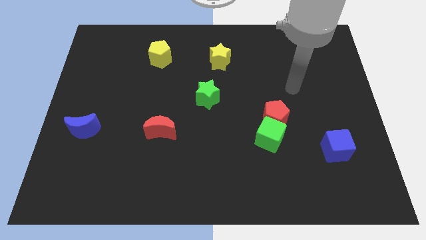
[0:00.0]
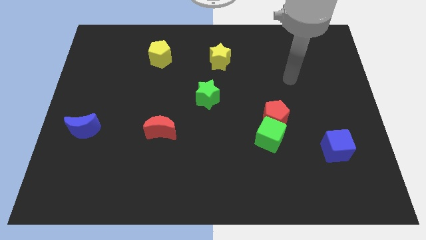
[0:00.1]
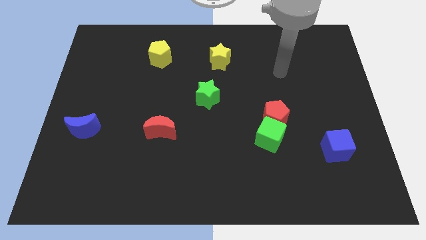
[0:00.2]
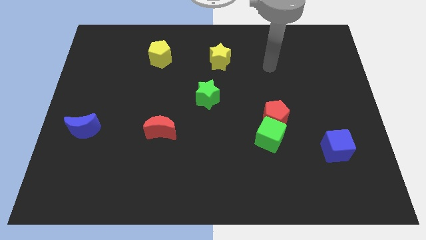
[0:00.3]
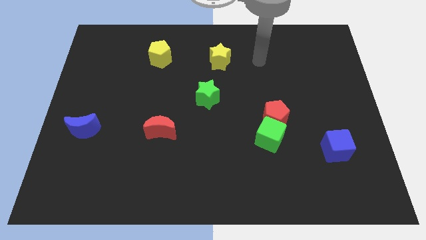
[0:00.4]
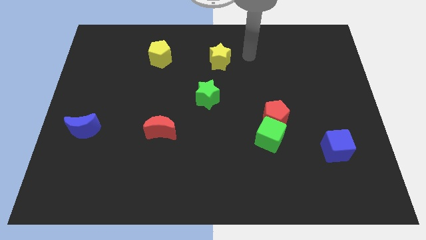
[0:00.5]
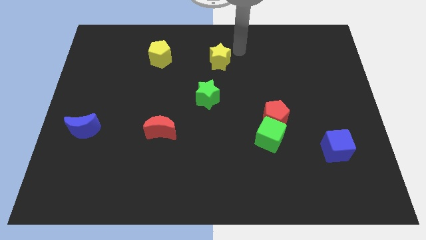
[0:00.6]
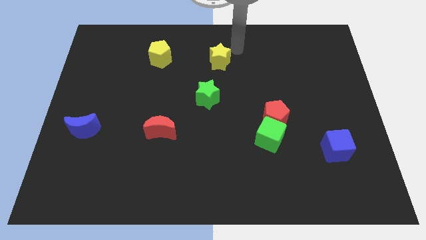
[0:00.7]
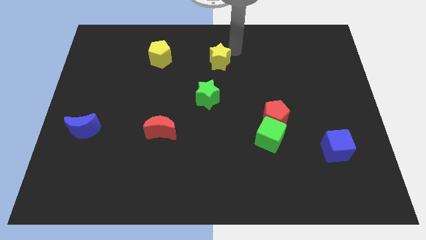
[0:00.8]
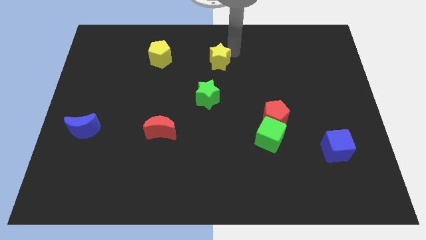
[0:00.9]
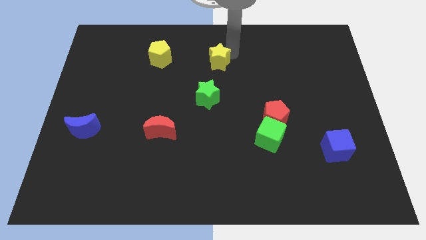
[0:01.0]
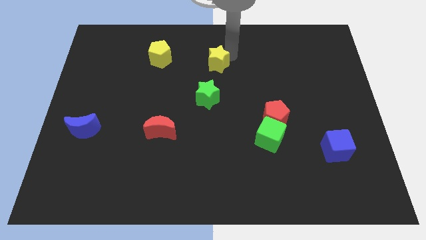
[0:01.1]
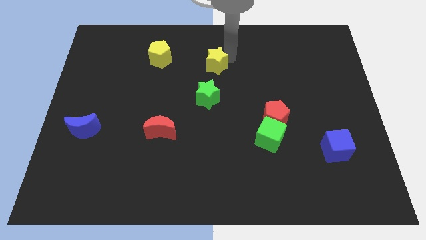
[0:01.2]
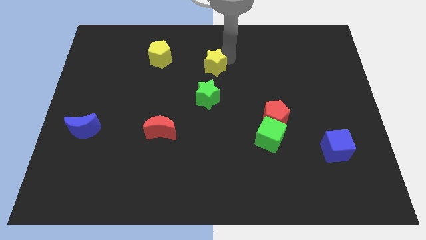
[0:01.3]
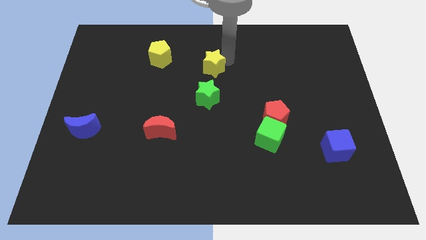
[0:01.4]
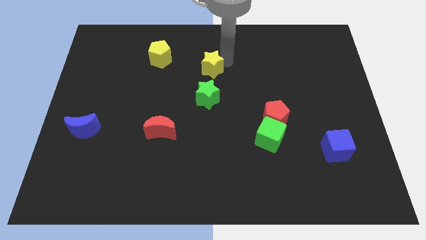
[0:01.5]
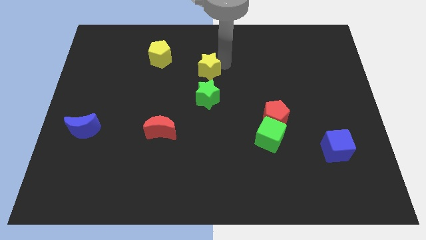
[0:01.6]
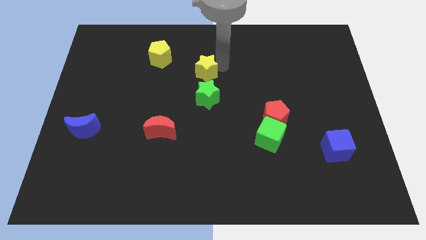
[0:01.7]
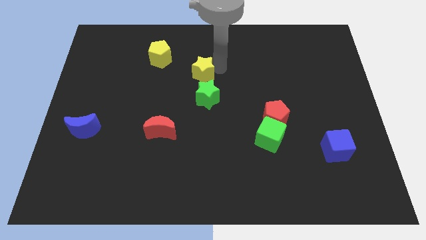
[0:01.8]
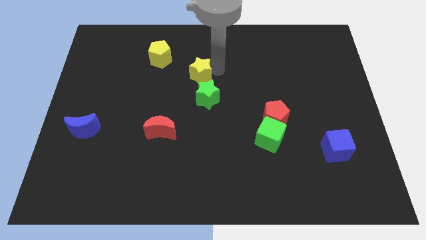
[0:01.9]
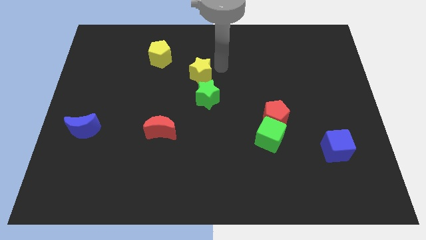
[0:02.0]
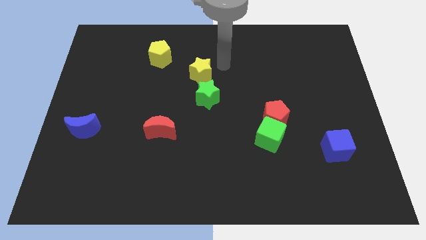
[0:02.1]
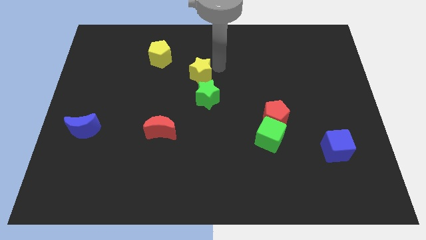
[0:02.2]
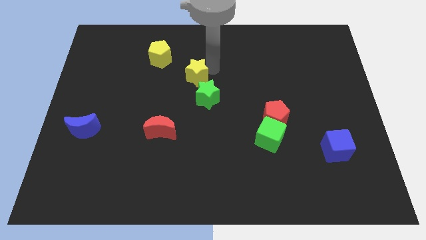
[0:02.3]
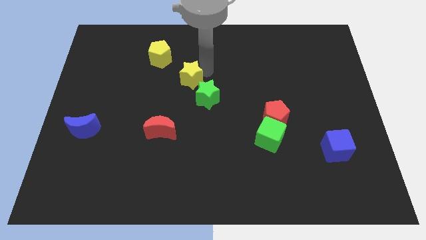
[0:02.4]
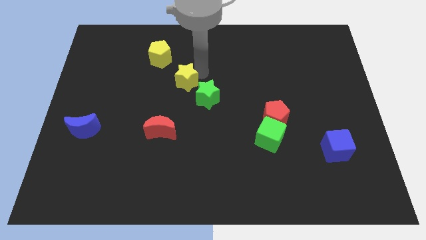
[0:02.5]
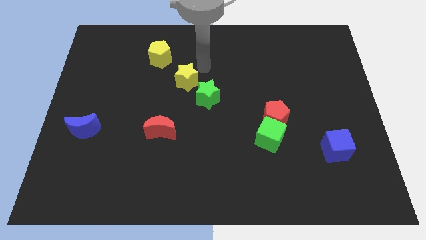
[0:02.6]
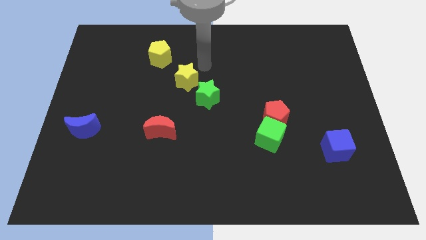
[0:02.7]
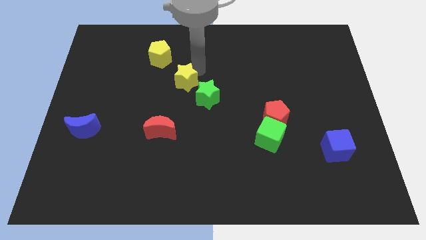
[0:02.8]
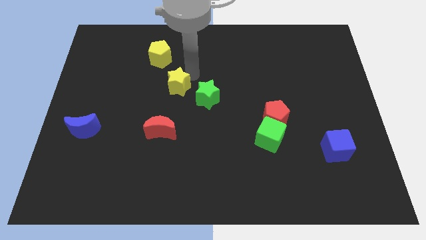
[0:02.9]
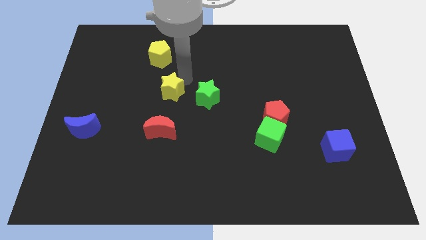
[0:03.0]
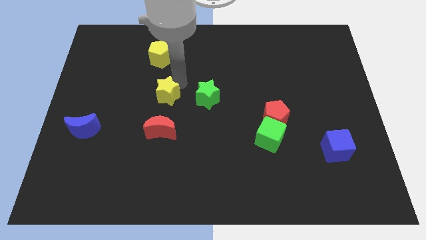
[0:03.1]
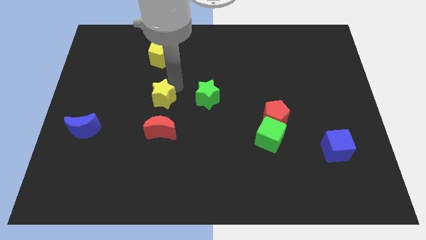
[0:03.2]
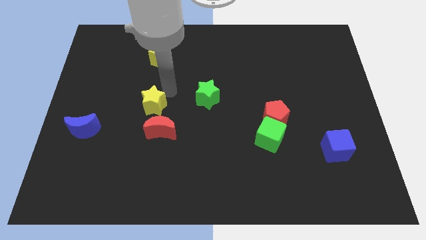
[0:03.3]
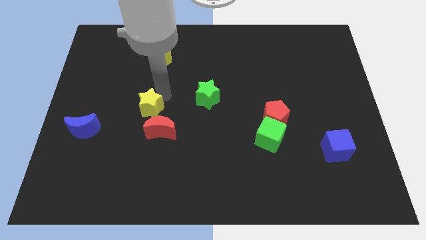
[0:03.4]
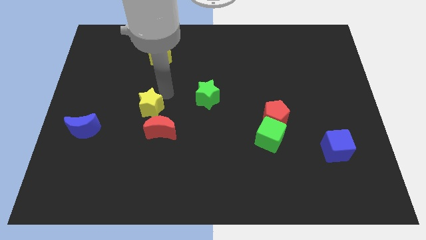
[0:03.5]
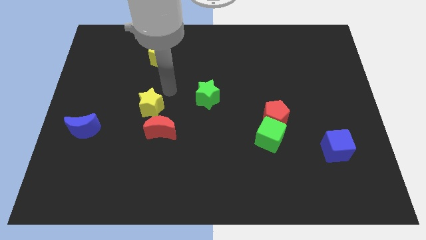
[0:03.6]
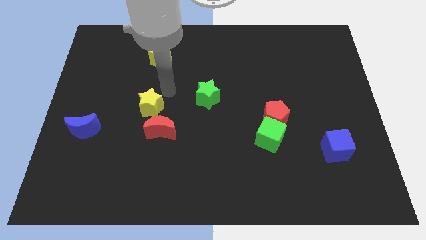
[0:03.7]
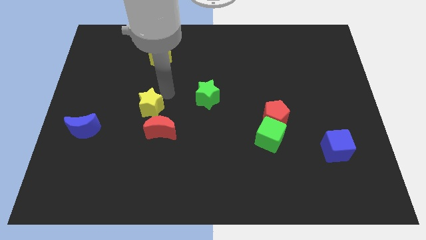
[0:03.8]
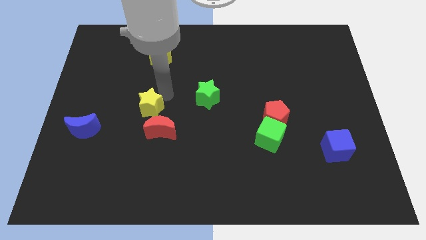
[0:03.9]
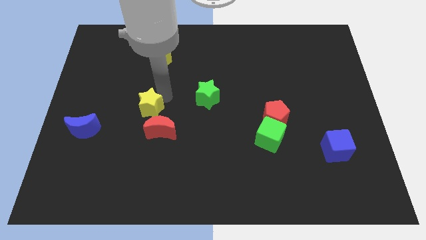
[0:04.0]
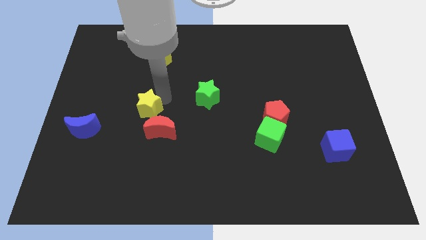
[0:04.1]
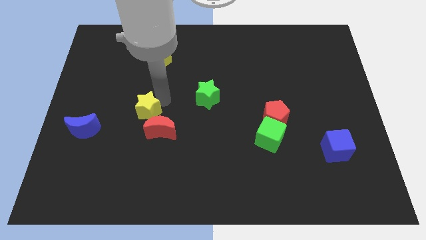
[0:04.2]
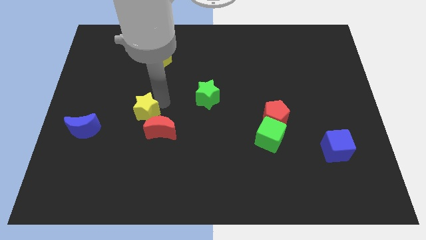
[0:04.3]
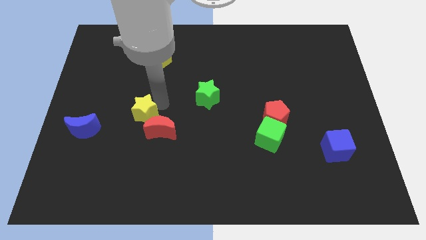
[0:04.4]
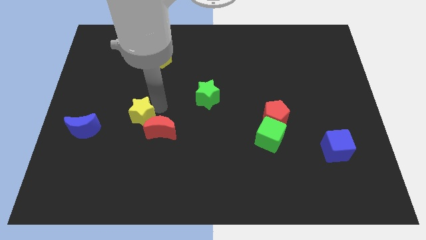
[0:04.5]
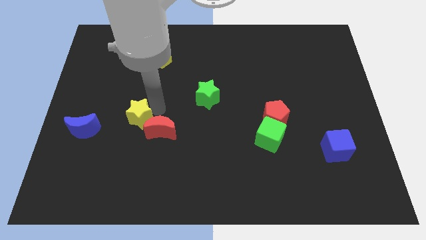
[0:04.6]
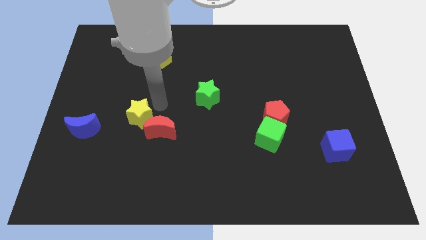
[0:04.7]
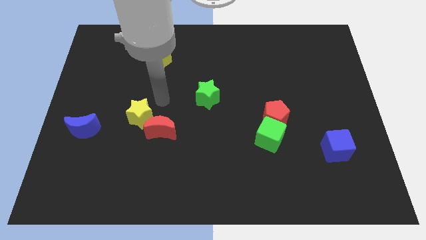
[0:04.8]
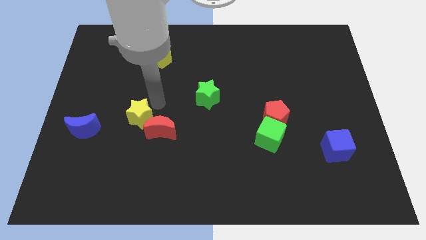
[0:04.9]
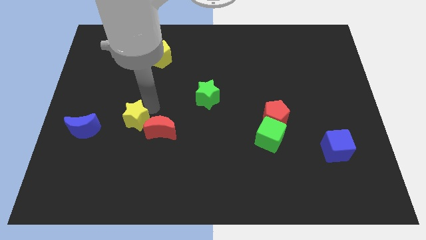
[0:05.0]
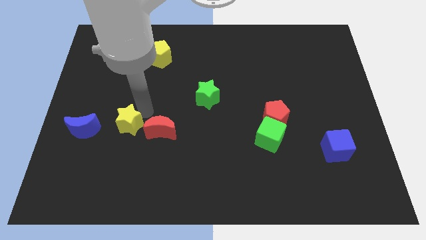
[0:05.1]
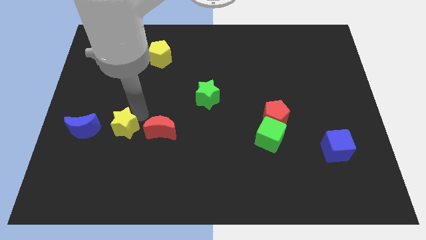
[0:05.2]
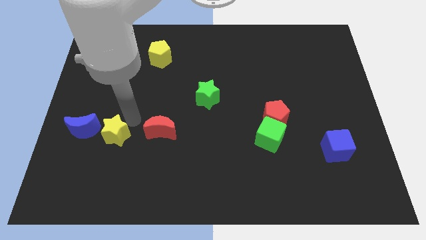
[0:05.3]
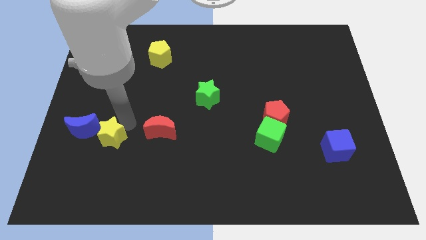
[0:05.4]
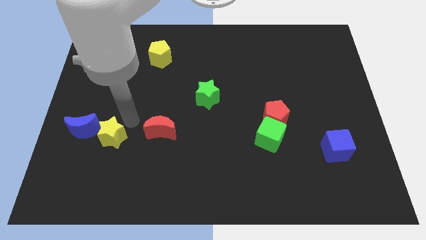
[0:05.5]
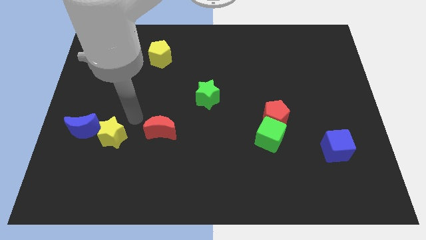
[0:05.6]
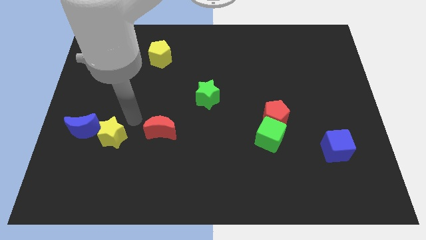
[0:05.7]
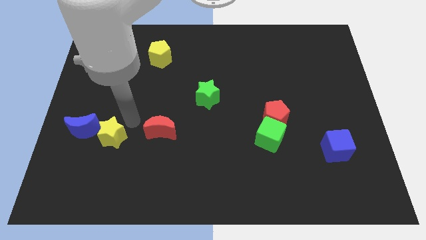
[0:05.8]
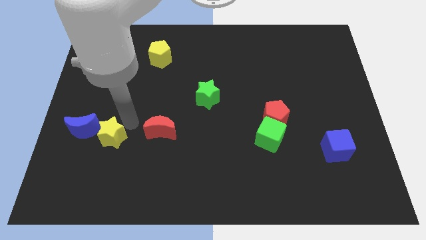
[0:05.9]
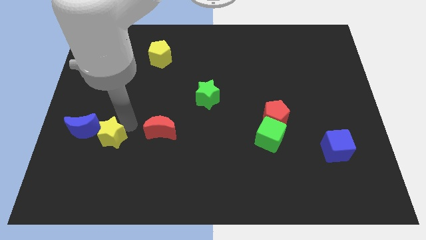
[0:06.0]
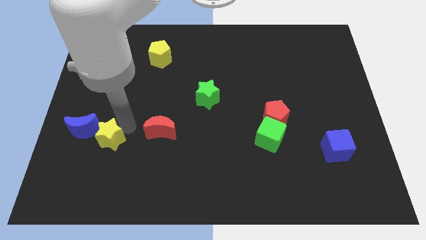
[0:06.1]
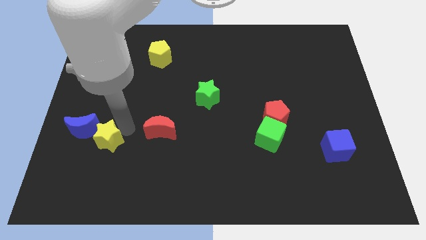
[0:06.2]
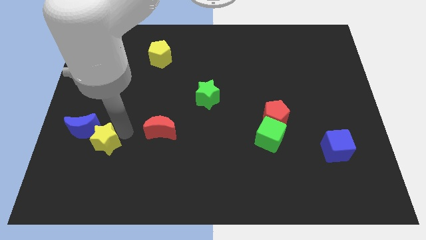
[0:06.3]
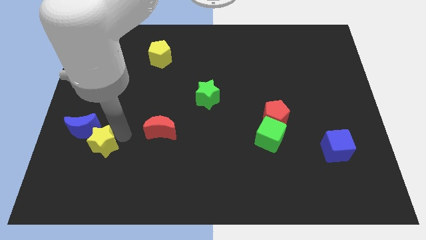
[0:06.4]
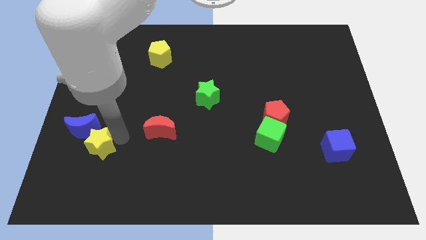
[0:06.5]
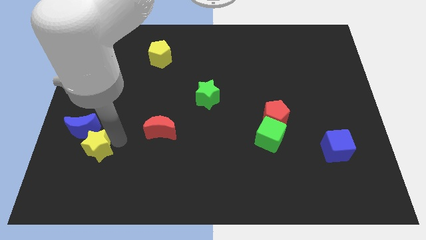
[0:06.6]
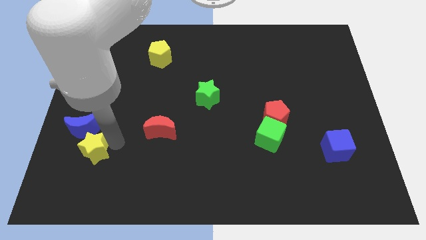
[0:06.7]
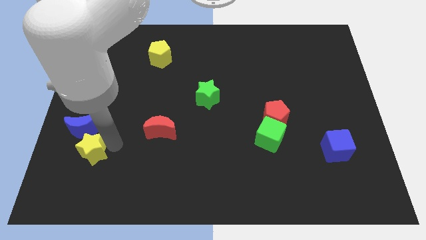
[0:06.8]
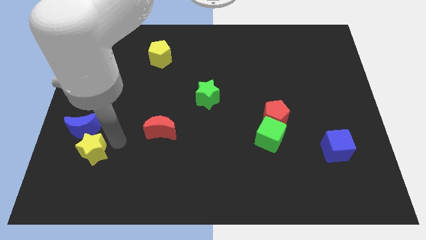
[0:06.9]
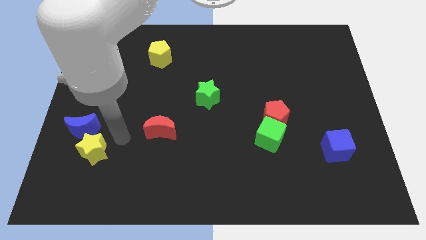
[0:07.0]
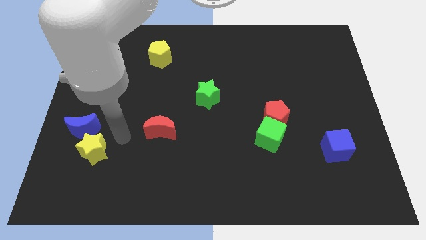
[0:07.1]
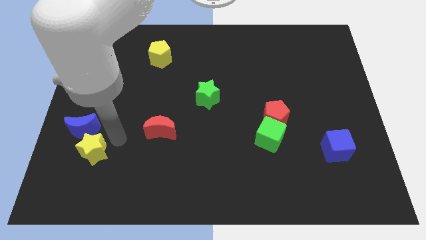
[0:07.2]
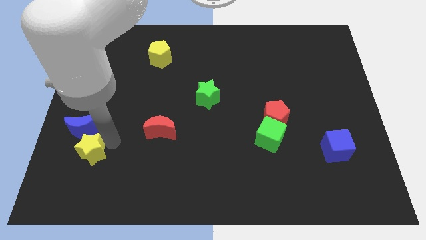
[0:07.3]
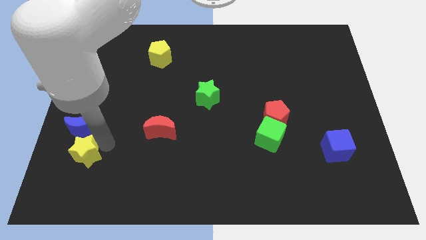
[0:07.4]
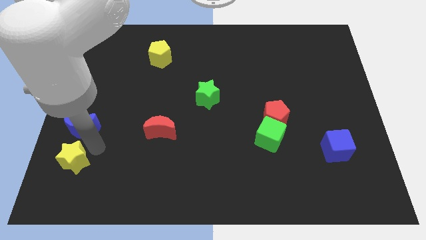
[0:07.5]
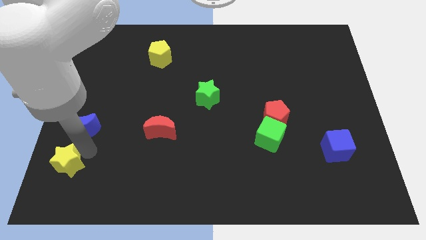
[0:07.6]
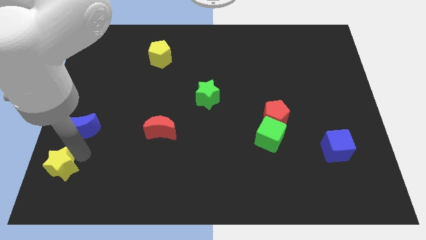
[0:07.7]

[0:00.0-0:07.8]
push the yellow star to the bottom left of the board
